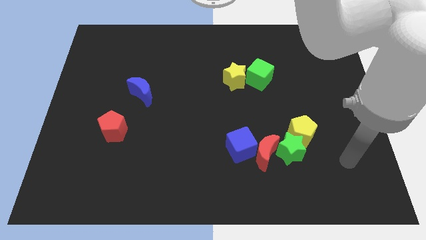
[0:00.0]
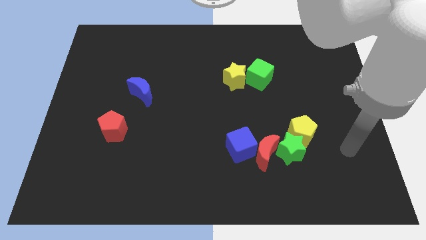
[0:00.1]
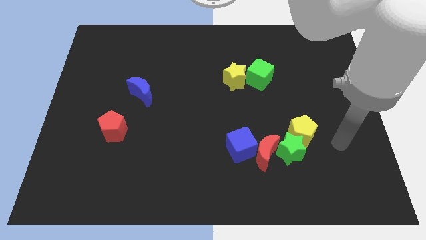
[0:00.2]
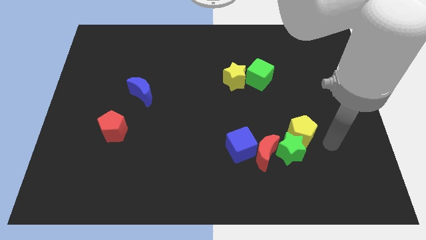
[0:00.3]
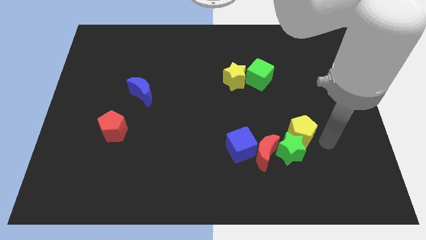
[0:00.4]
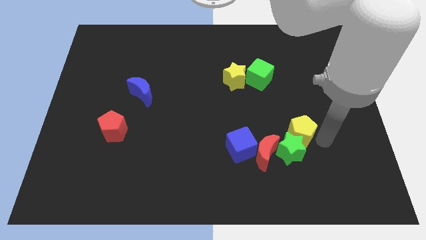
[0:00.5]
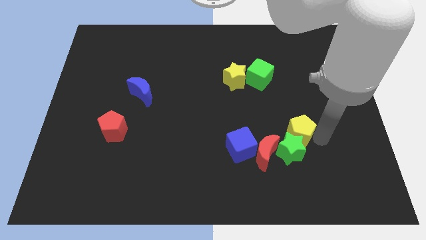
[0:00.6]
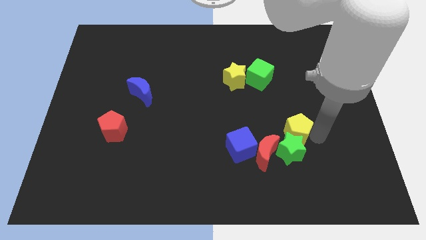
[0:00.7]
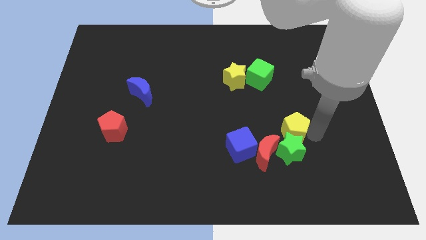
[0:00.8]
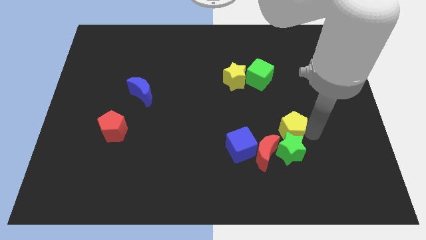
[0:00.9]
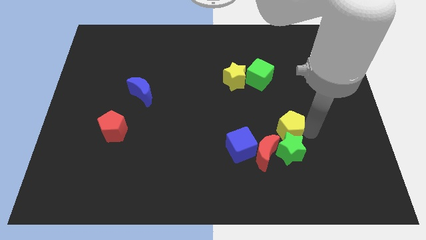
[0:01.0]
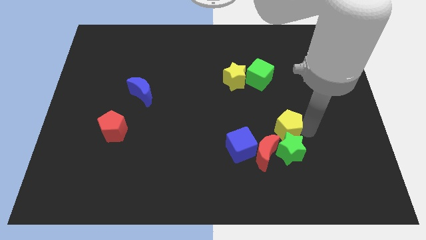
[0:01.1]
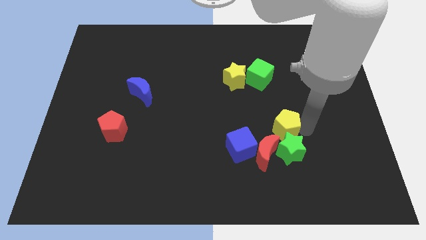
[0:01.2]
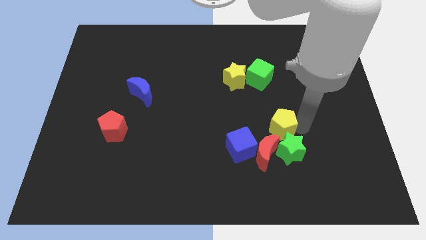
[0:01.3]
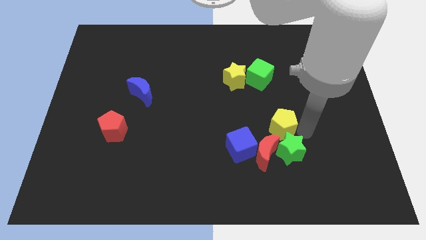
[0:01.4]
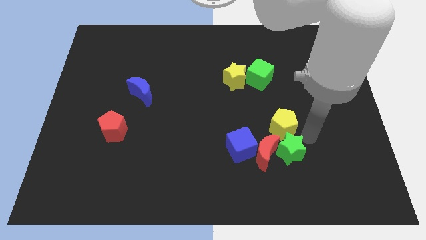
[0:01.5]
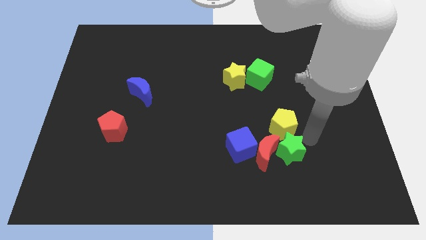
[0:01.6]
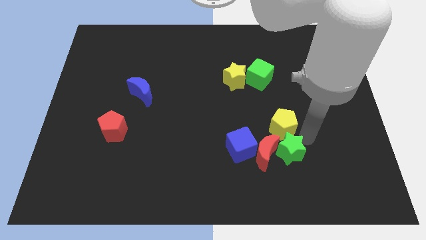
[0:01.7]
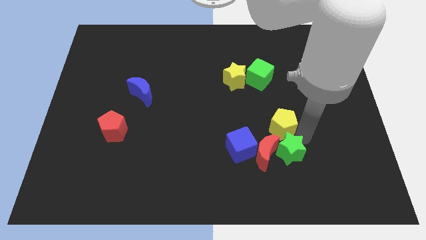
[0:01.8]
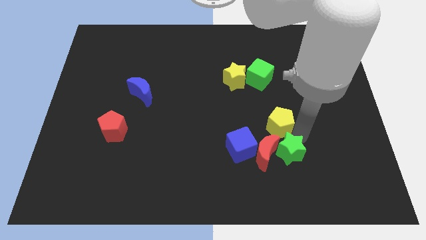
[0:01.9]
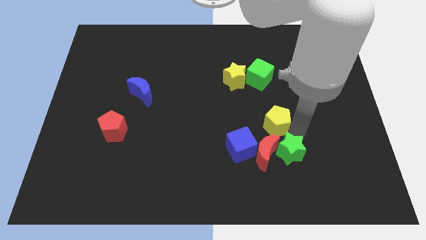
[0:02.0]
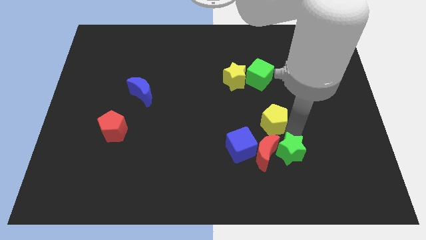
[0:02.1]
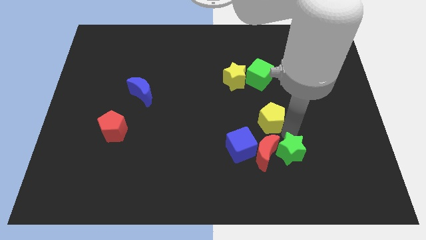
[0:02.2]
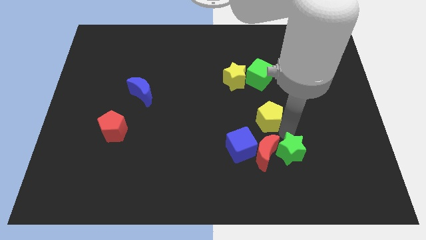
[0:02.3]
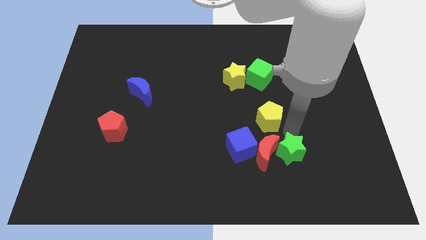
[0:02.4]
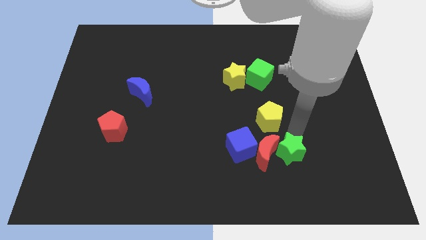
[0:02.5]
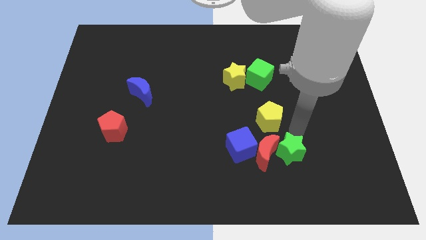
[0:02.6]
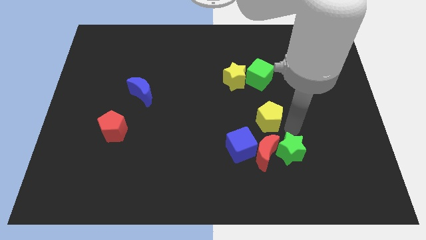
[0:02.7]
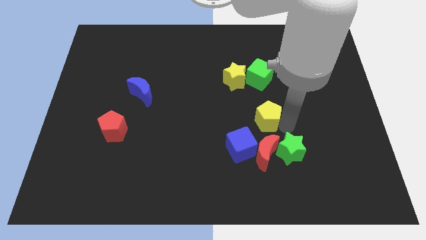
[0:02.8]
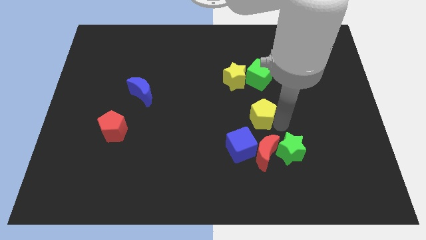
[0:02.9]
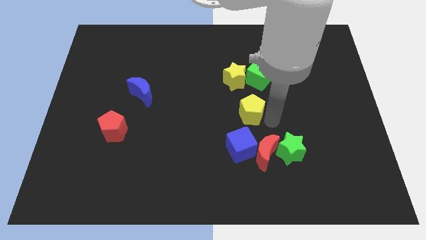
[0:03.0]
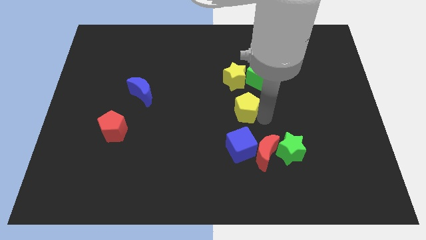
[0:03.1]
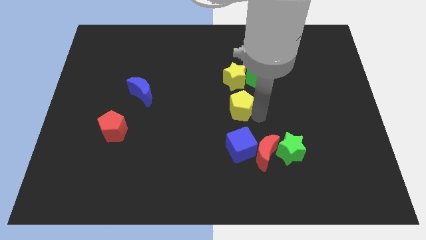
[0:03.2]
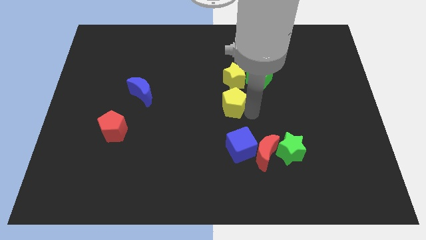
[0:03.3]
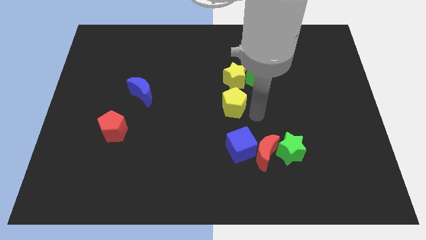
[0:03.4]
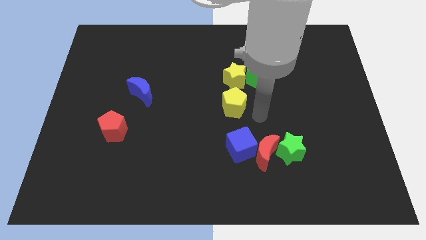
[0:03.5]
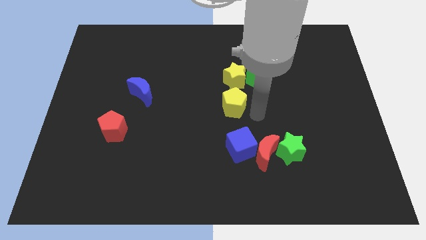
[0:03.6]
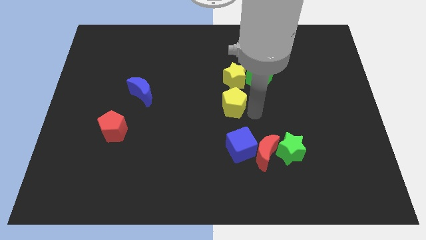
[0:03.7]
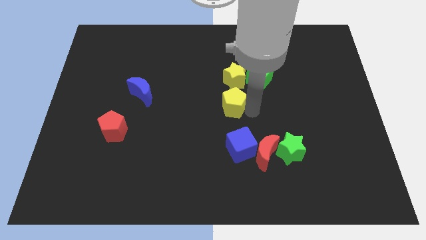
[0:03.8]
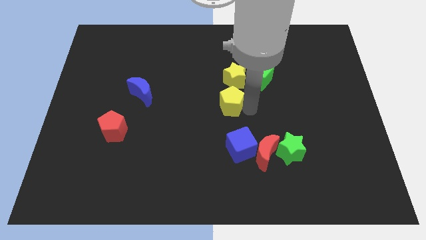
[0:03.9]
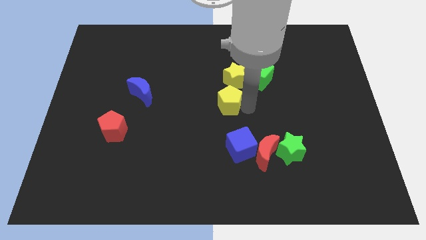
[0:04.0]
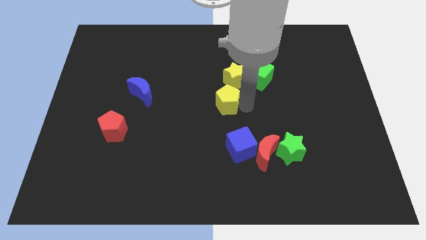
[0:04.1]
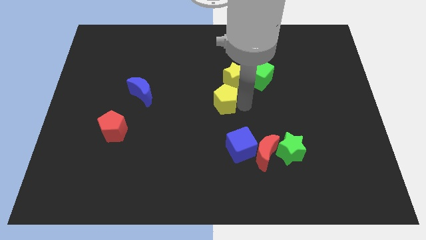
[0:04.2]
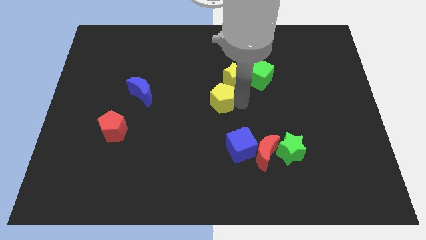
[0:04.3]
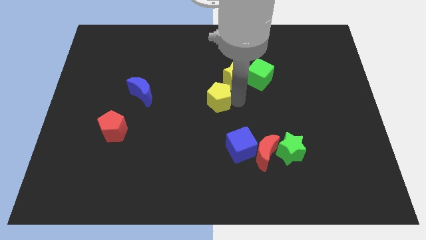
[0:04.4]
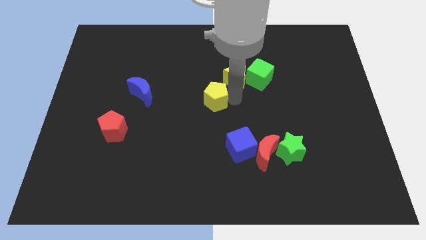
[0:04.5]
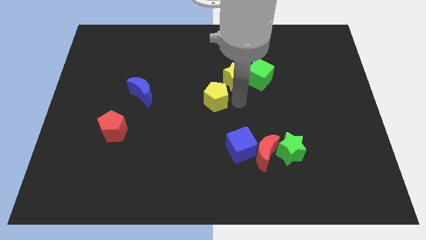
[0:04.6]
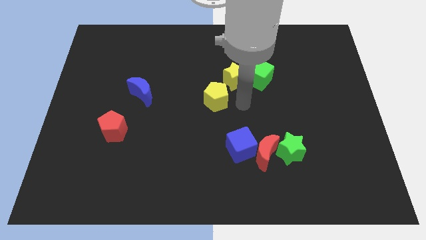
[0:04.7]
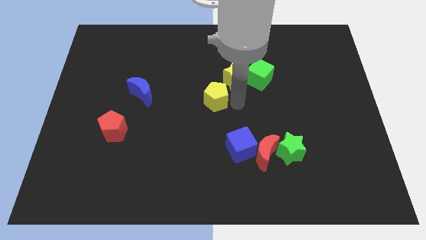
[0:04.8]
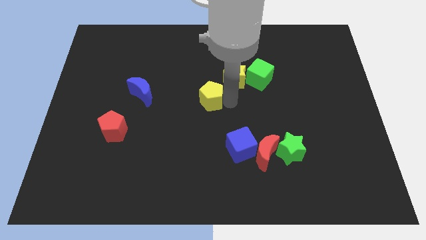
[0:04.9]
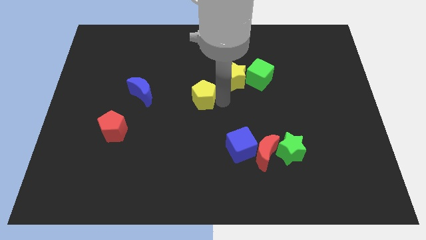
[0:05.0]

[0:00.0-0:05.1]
push the yellow pentagon right of the blue moon

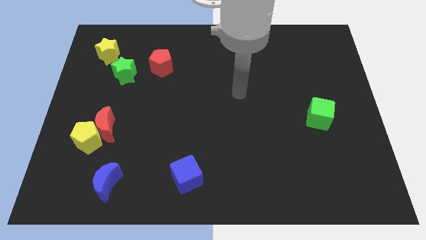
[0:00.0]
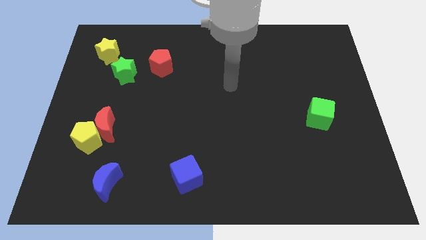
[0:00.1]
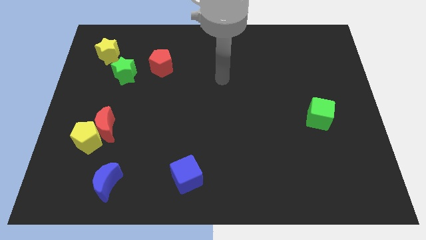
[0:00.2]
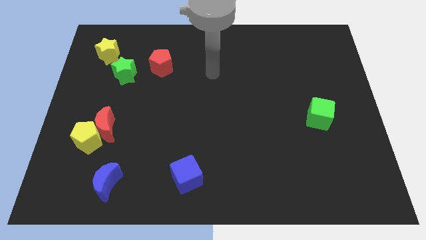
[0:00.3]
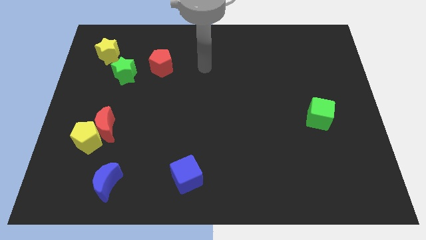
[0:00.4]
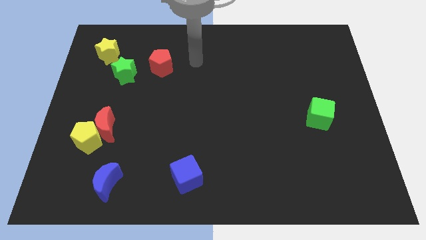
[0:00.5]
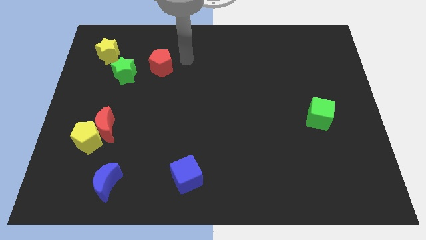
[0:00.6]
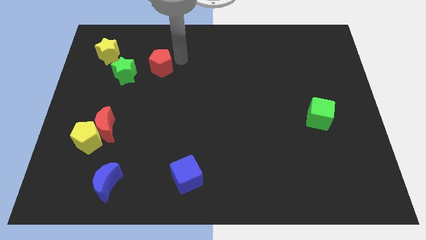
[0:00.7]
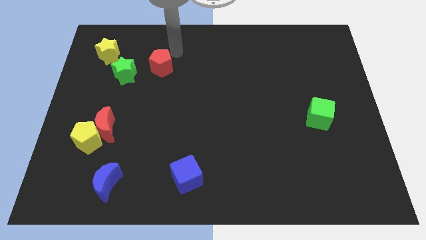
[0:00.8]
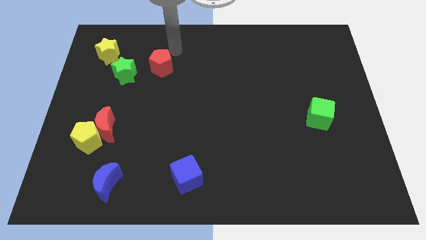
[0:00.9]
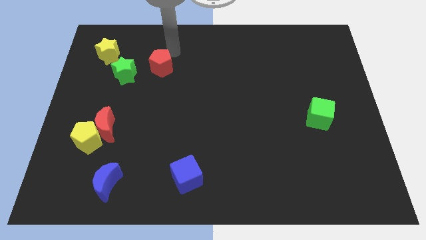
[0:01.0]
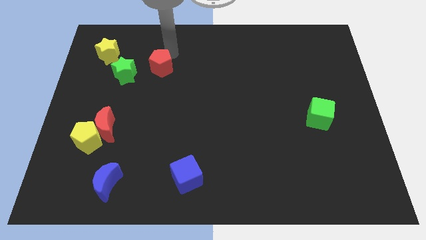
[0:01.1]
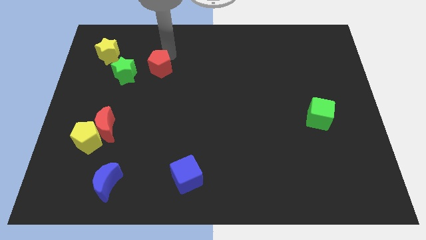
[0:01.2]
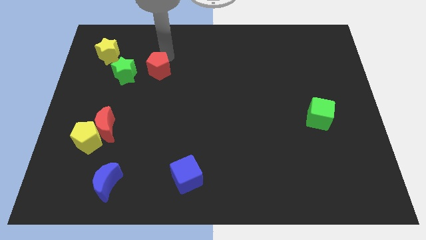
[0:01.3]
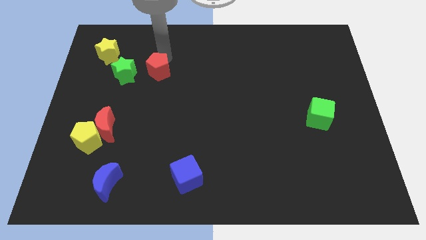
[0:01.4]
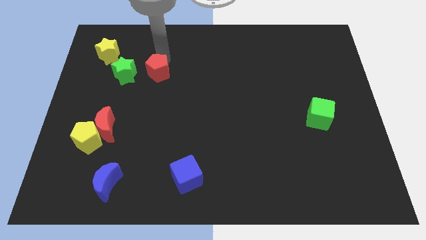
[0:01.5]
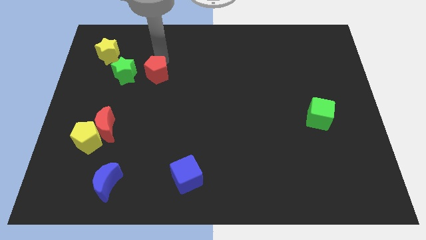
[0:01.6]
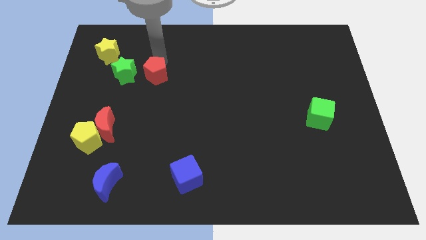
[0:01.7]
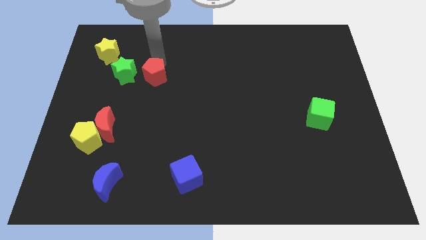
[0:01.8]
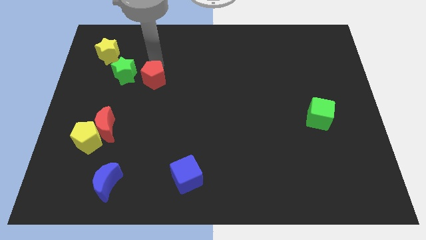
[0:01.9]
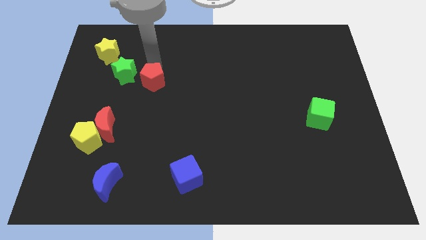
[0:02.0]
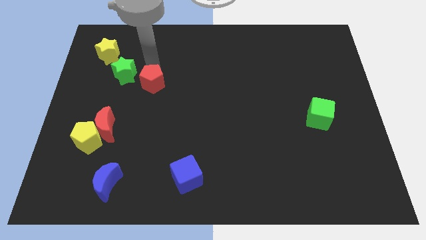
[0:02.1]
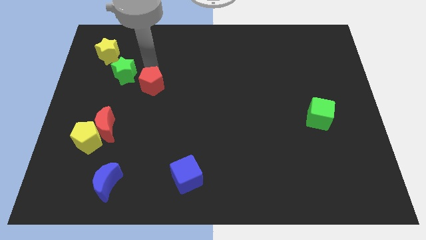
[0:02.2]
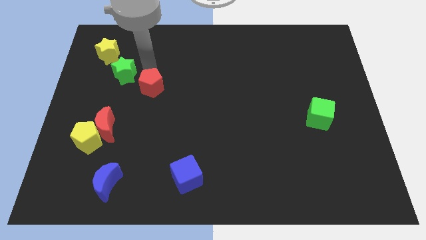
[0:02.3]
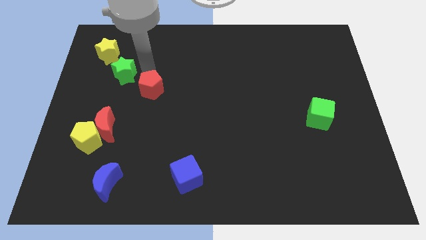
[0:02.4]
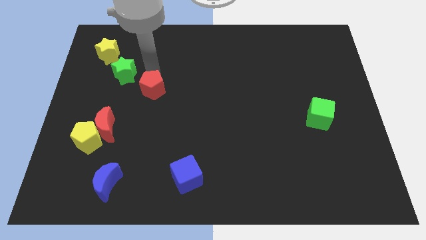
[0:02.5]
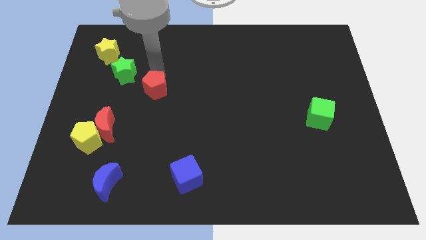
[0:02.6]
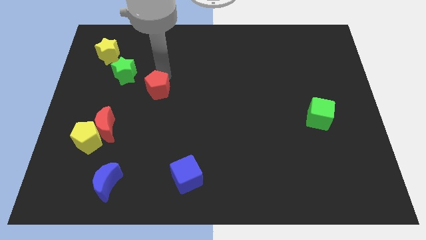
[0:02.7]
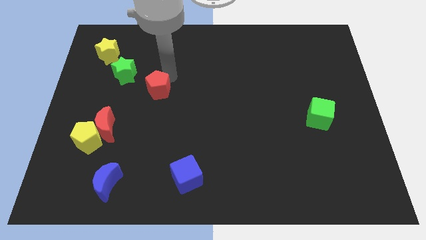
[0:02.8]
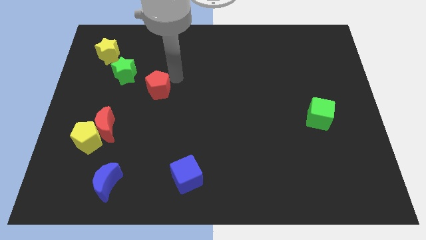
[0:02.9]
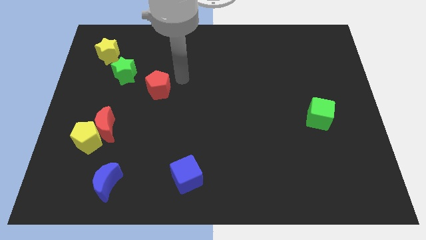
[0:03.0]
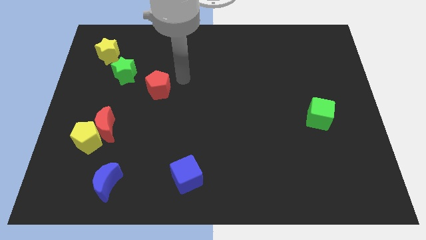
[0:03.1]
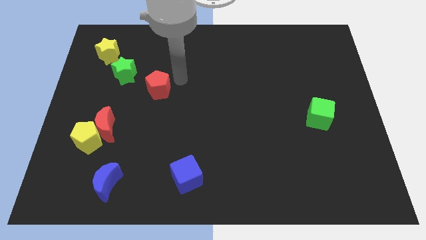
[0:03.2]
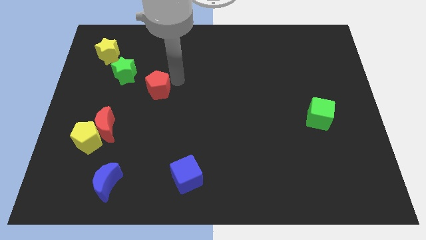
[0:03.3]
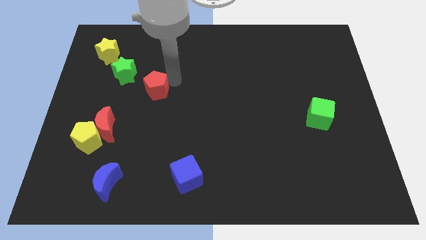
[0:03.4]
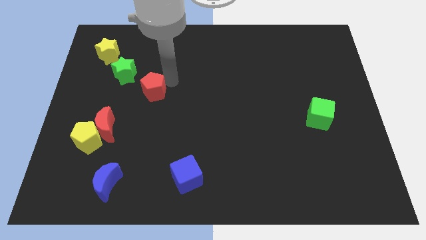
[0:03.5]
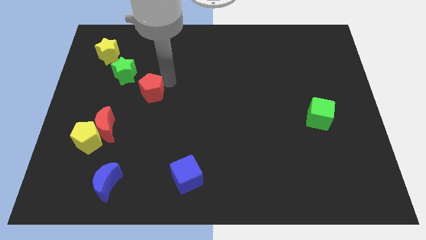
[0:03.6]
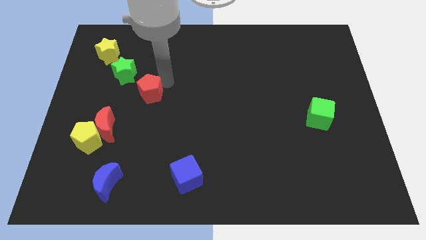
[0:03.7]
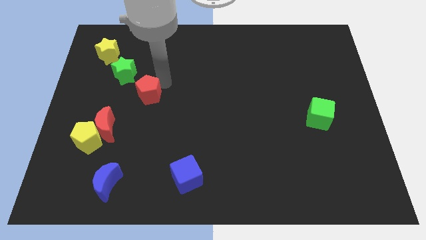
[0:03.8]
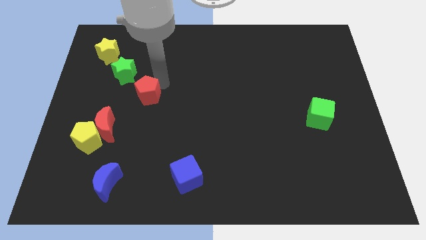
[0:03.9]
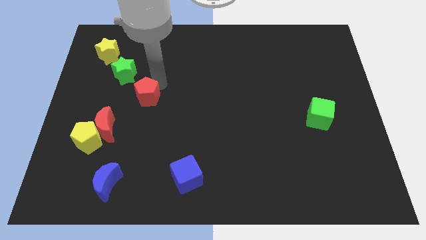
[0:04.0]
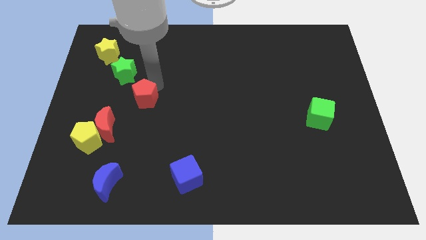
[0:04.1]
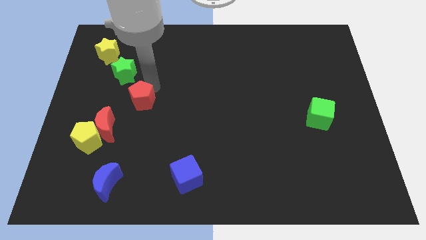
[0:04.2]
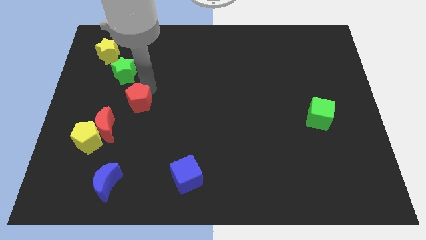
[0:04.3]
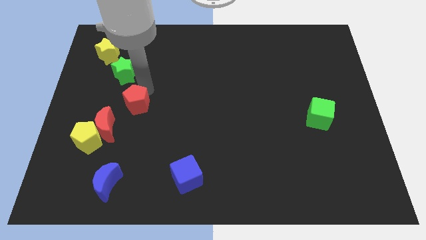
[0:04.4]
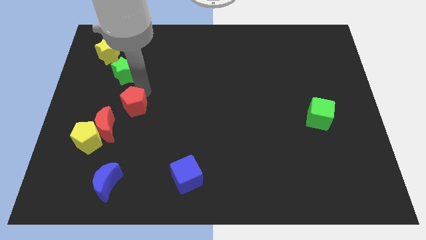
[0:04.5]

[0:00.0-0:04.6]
move the red pentagon to the top right of the yellow pentagon
